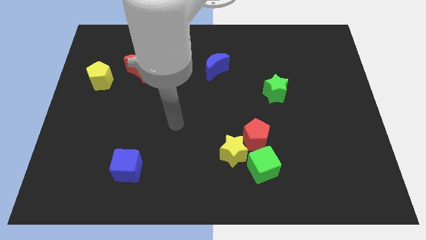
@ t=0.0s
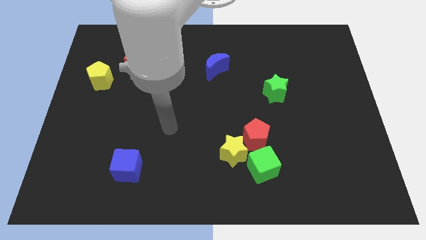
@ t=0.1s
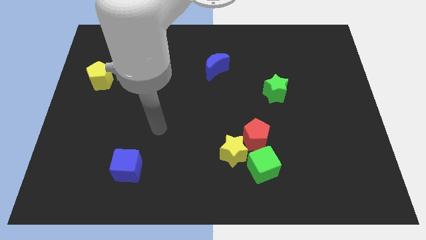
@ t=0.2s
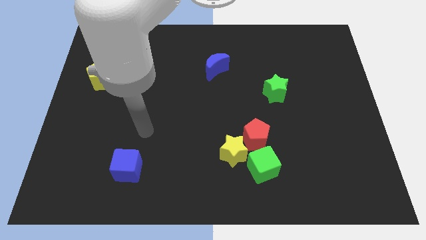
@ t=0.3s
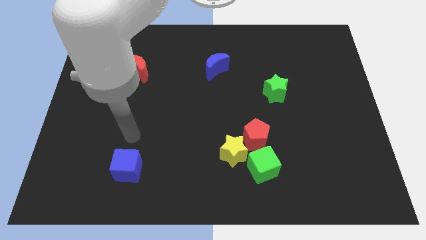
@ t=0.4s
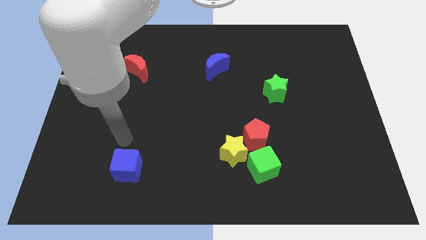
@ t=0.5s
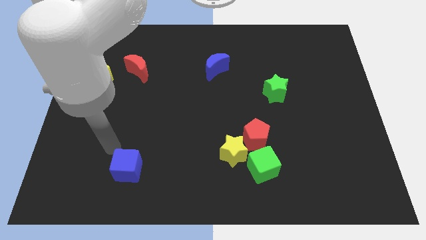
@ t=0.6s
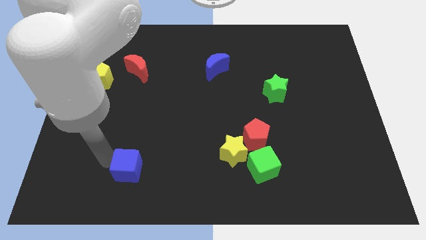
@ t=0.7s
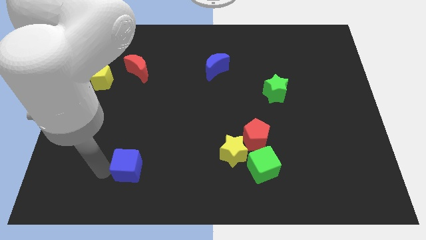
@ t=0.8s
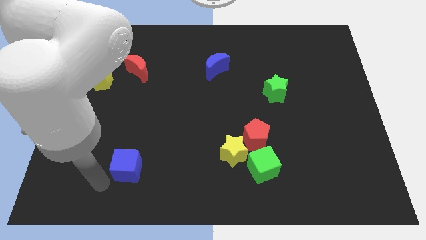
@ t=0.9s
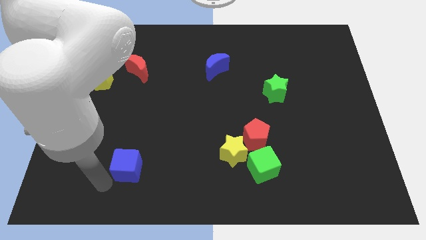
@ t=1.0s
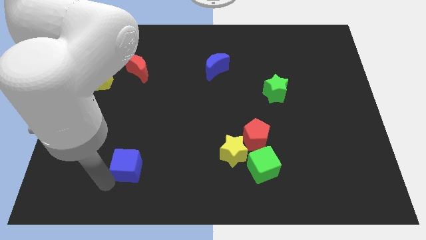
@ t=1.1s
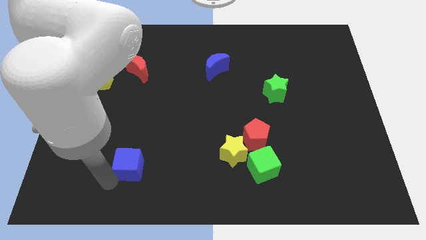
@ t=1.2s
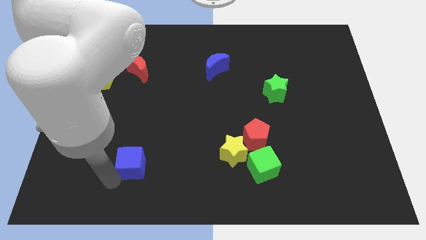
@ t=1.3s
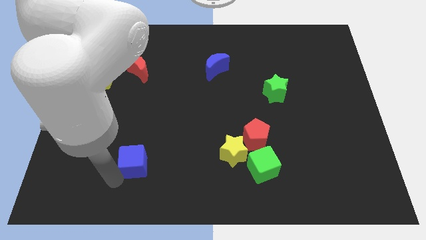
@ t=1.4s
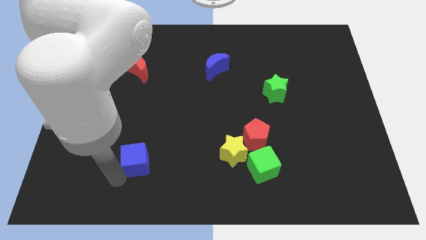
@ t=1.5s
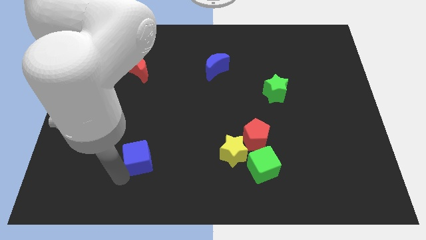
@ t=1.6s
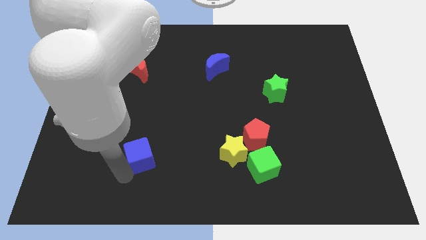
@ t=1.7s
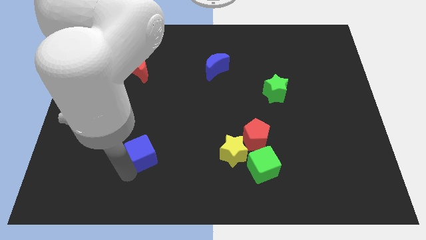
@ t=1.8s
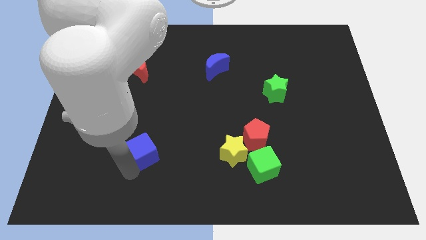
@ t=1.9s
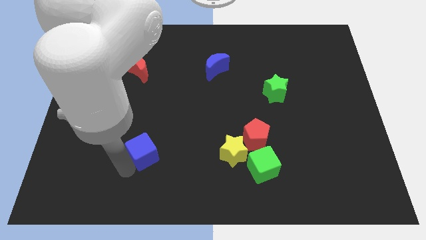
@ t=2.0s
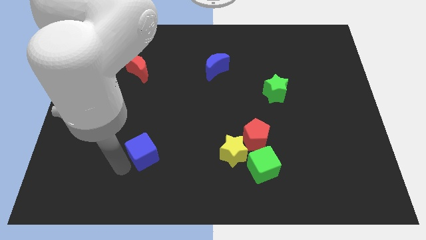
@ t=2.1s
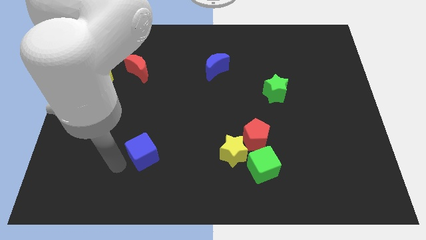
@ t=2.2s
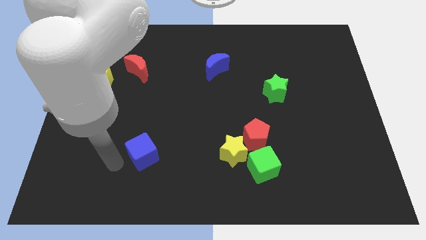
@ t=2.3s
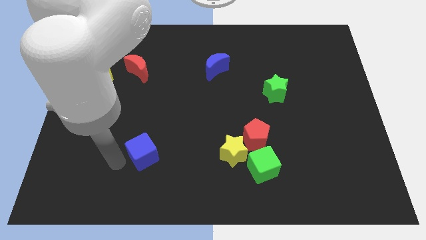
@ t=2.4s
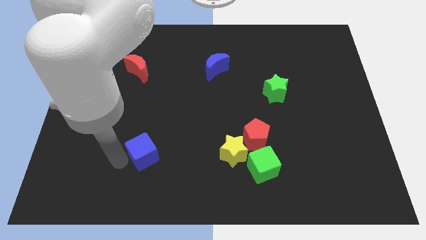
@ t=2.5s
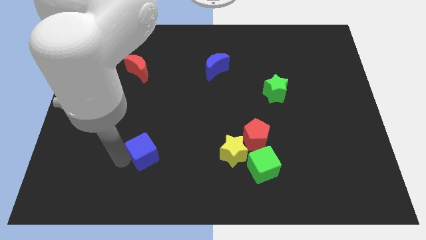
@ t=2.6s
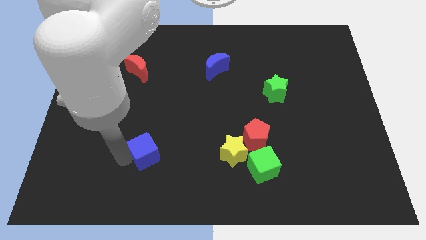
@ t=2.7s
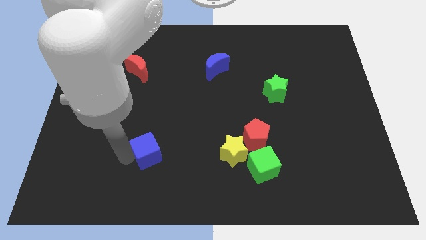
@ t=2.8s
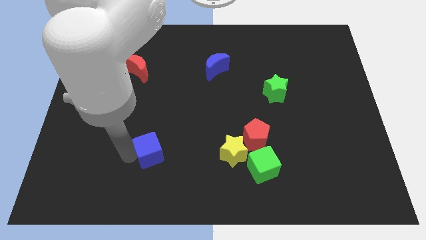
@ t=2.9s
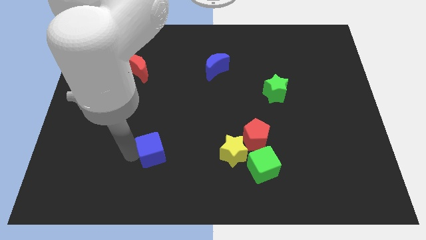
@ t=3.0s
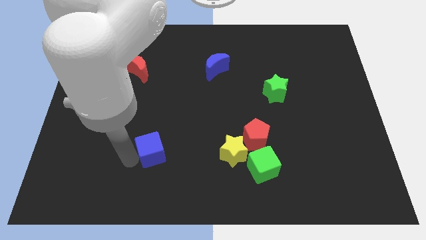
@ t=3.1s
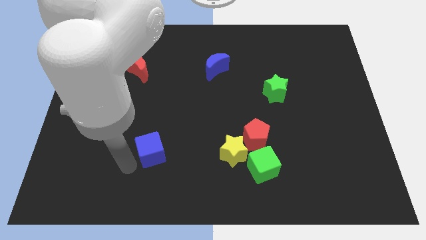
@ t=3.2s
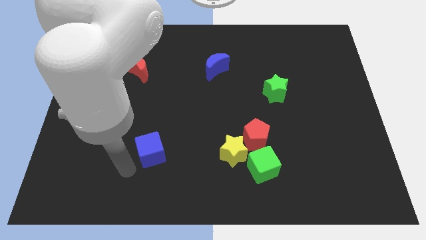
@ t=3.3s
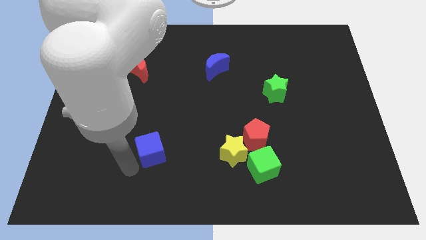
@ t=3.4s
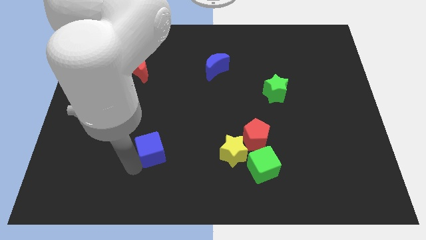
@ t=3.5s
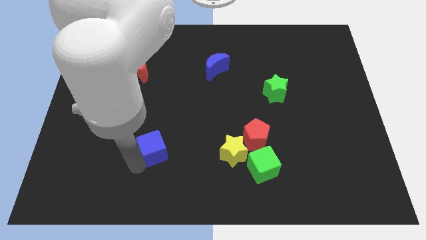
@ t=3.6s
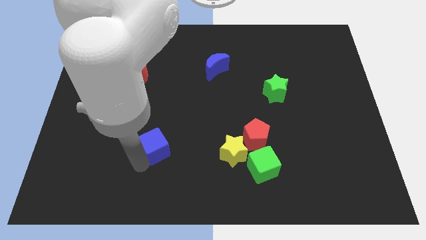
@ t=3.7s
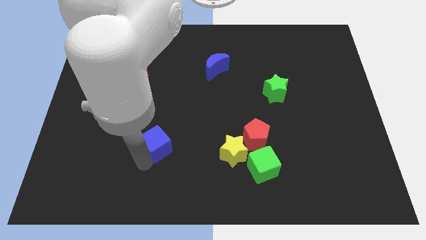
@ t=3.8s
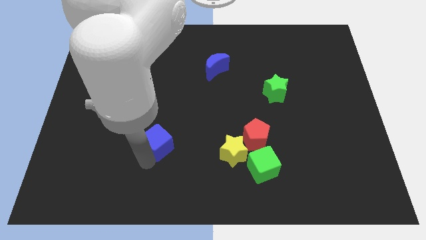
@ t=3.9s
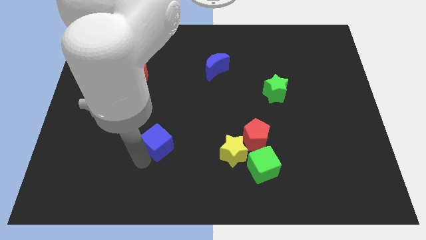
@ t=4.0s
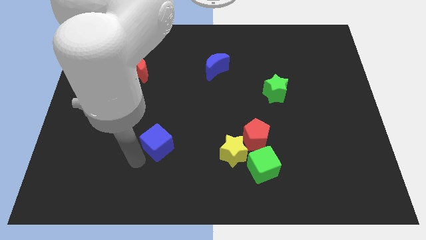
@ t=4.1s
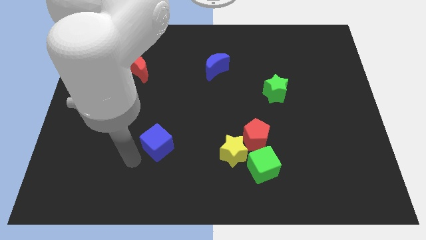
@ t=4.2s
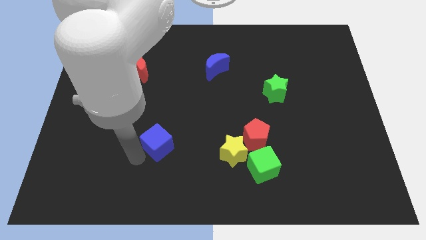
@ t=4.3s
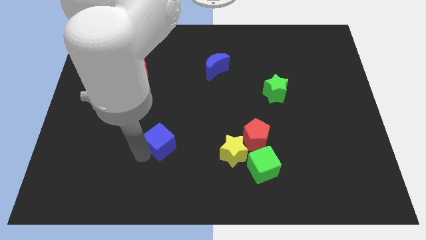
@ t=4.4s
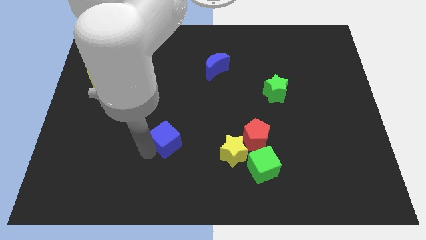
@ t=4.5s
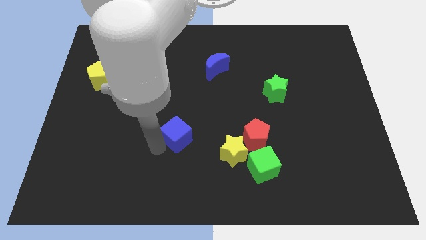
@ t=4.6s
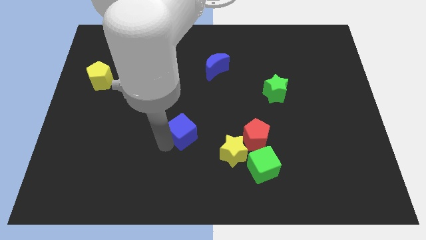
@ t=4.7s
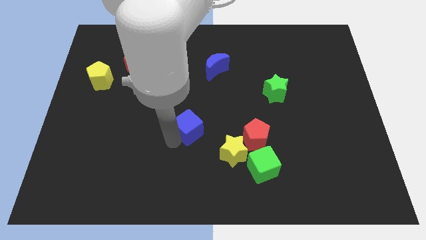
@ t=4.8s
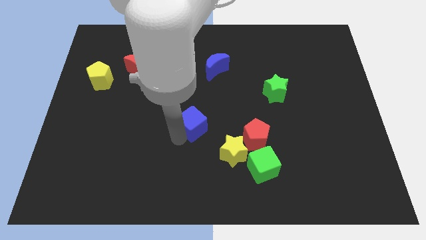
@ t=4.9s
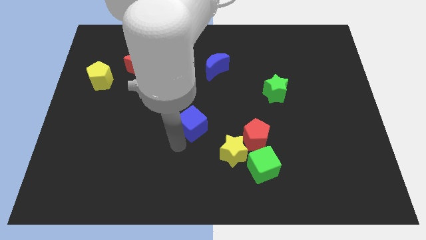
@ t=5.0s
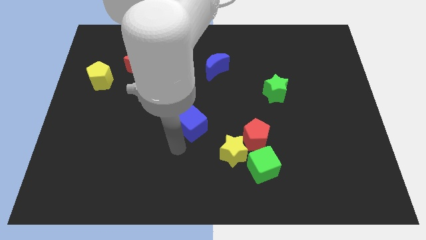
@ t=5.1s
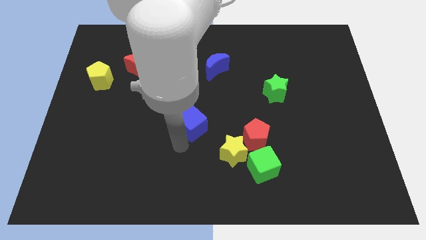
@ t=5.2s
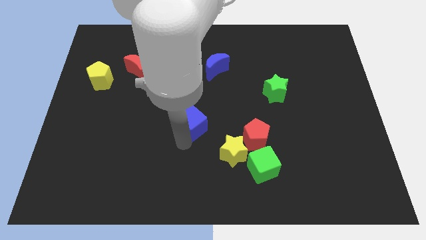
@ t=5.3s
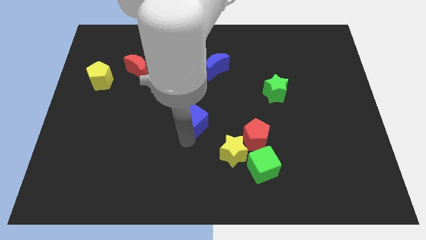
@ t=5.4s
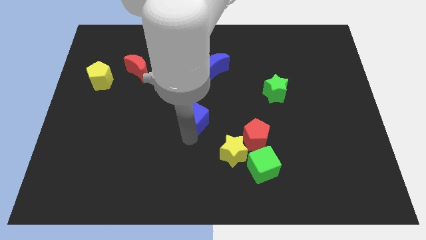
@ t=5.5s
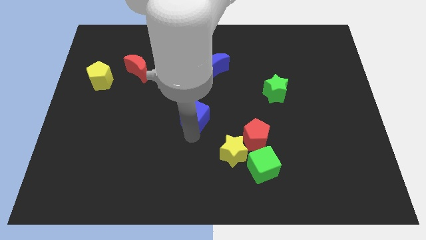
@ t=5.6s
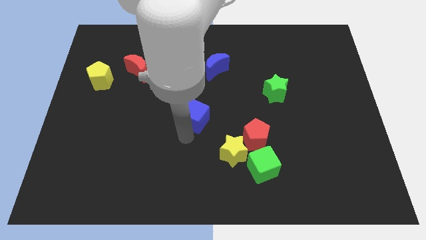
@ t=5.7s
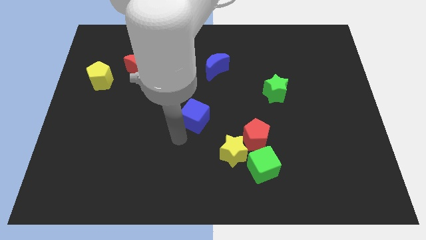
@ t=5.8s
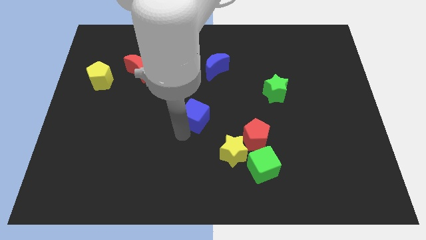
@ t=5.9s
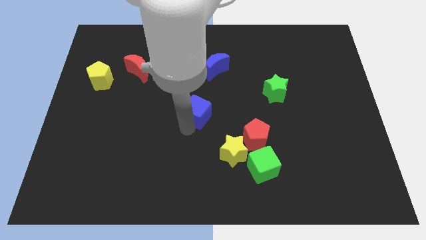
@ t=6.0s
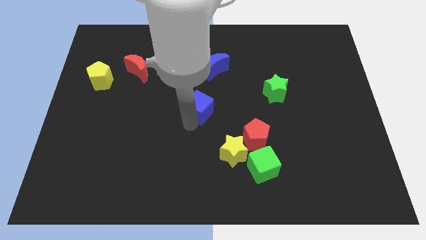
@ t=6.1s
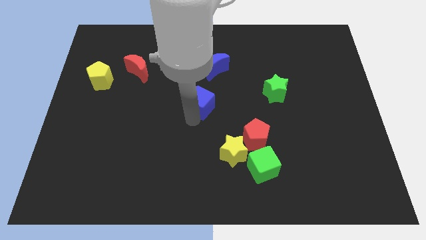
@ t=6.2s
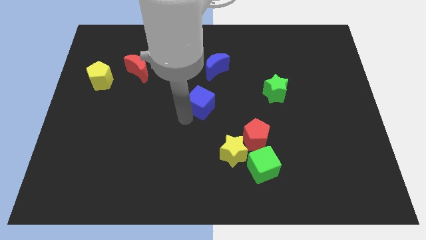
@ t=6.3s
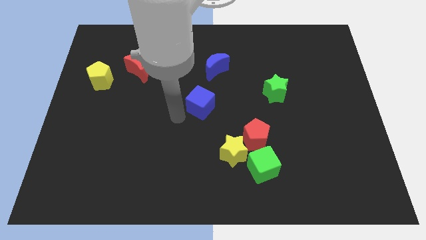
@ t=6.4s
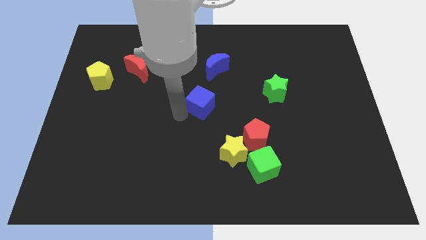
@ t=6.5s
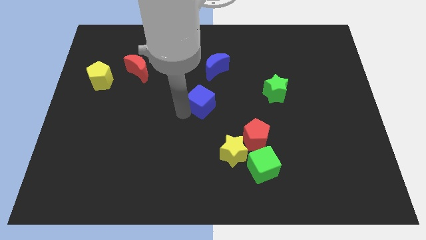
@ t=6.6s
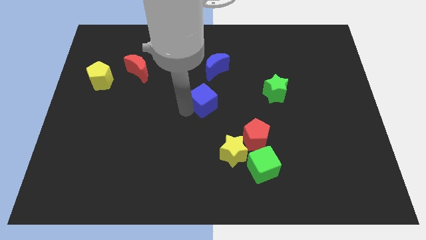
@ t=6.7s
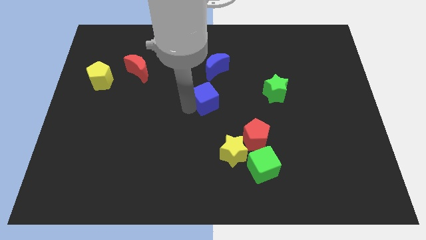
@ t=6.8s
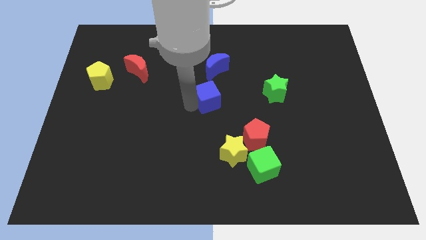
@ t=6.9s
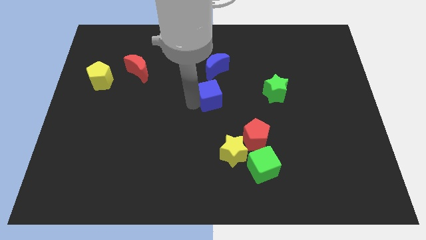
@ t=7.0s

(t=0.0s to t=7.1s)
put the blue cube just left of the green star

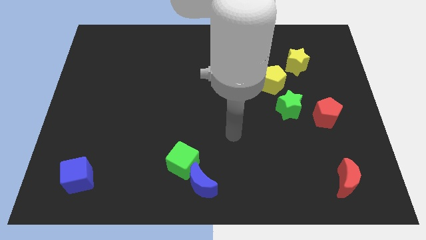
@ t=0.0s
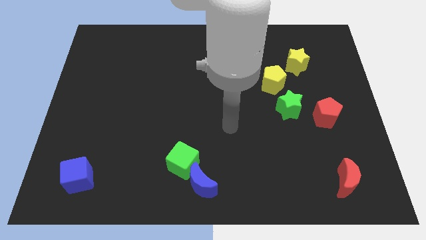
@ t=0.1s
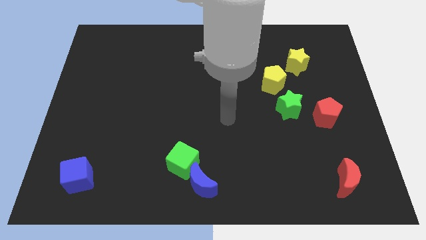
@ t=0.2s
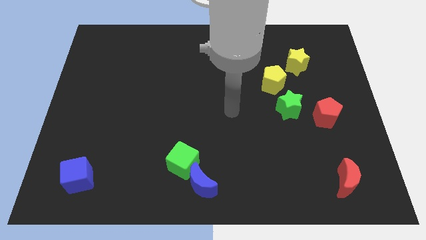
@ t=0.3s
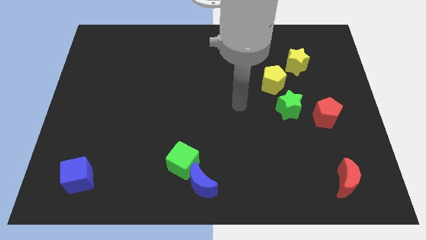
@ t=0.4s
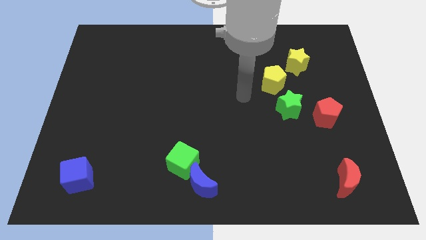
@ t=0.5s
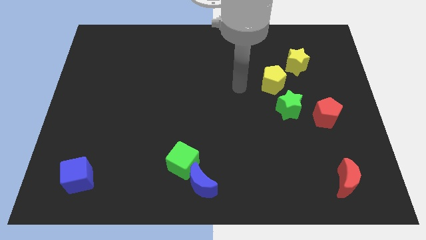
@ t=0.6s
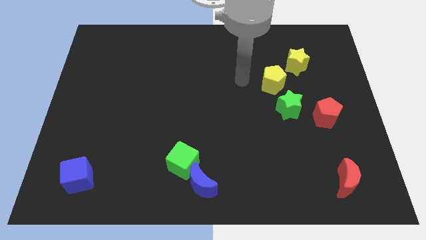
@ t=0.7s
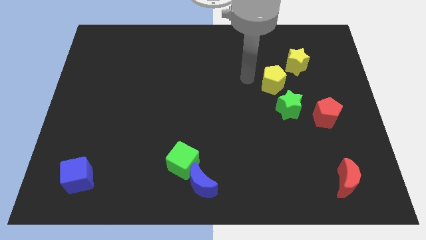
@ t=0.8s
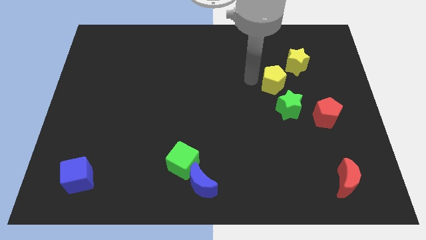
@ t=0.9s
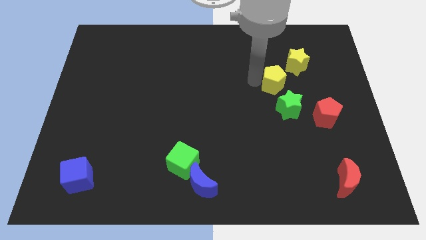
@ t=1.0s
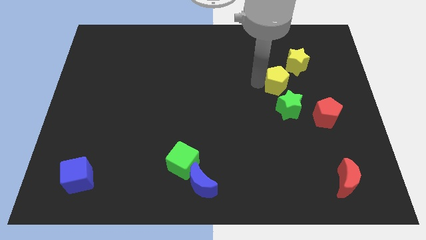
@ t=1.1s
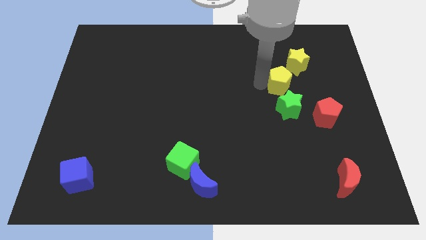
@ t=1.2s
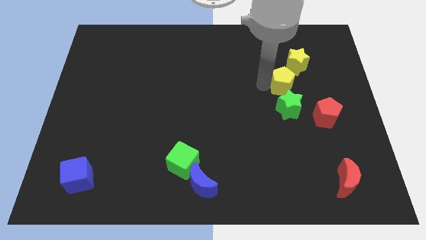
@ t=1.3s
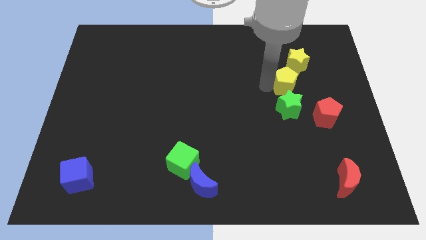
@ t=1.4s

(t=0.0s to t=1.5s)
slide the yellow pentagon diagonally up and to the right of the green star
